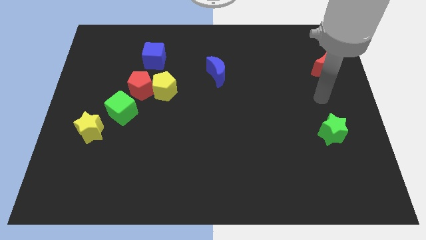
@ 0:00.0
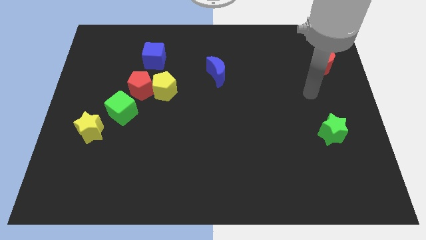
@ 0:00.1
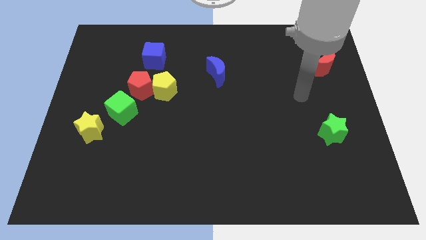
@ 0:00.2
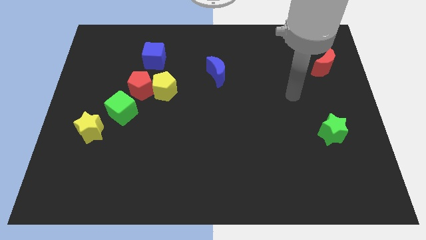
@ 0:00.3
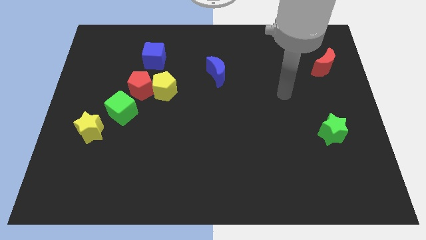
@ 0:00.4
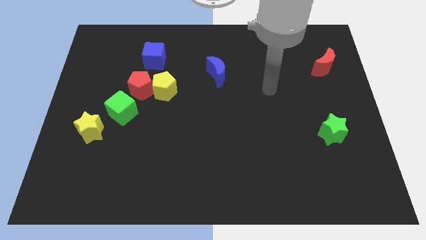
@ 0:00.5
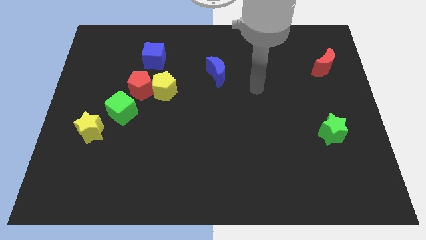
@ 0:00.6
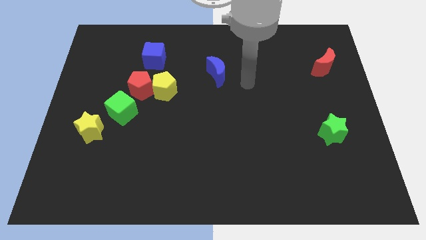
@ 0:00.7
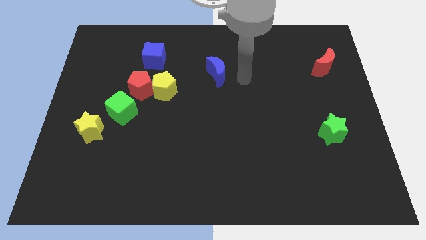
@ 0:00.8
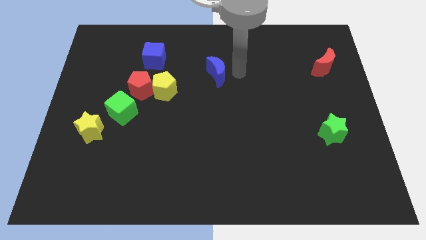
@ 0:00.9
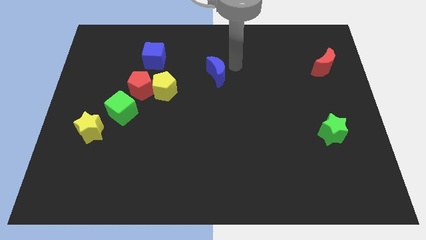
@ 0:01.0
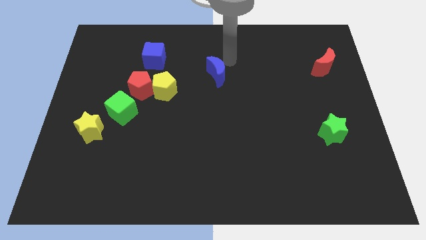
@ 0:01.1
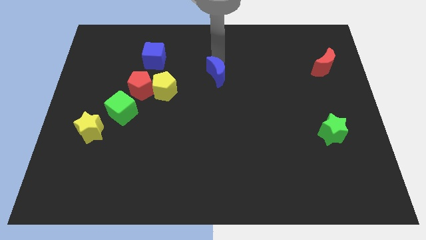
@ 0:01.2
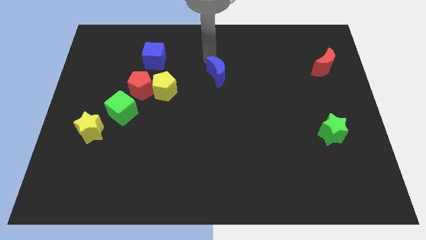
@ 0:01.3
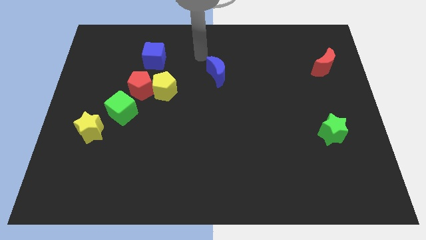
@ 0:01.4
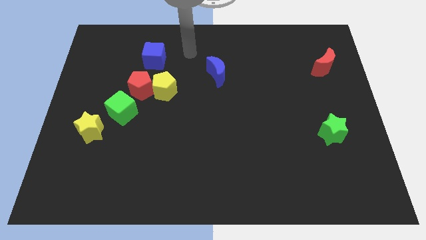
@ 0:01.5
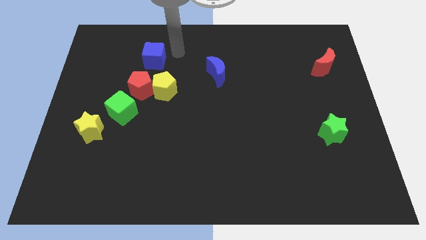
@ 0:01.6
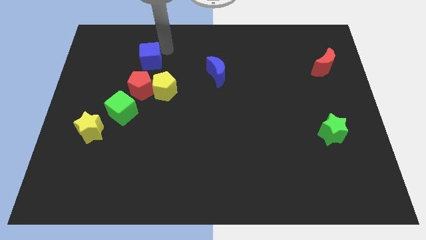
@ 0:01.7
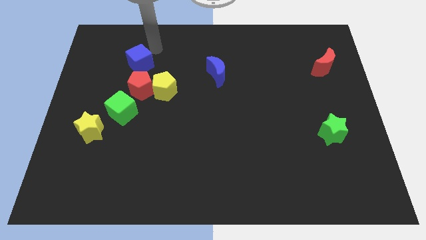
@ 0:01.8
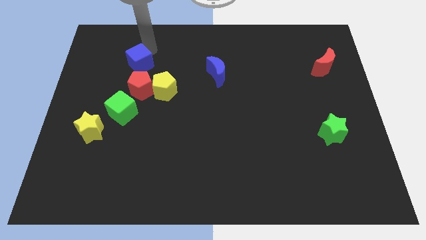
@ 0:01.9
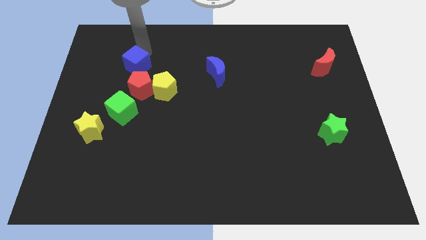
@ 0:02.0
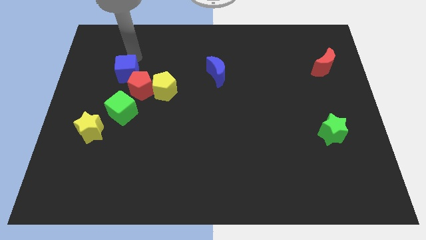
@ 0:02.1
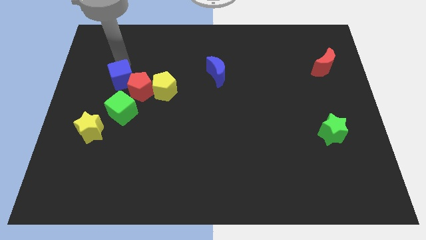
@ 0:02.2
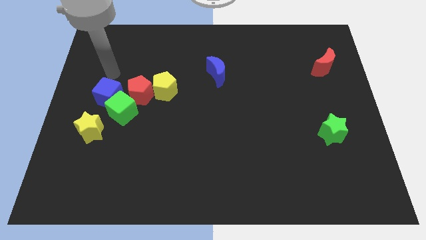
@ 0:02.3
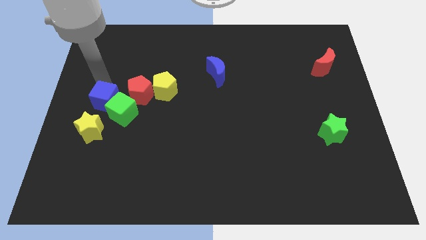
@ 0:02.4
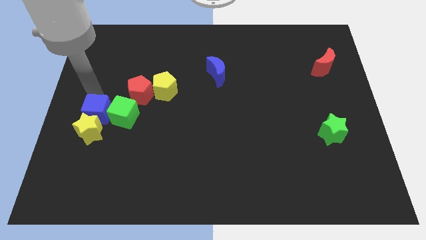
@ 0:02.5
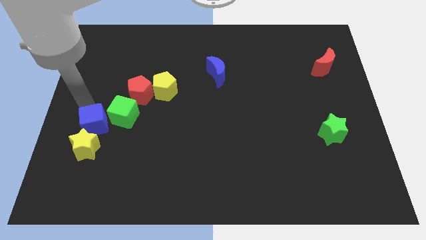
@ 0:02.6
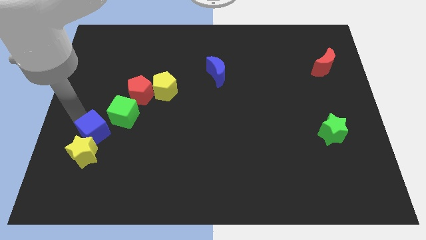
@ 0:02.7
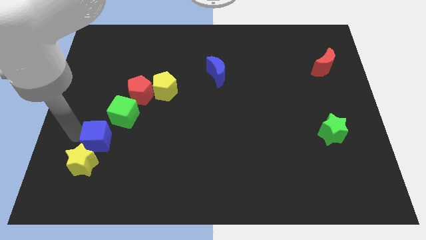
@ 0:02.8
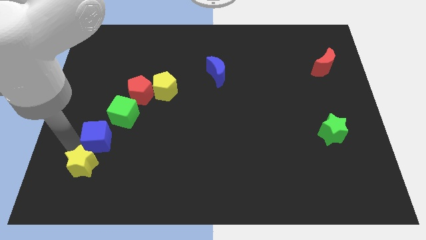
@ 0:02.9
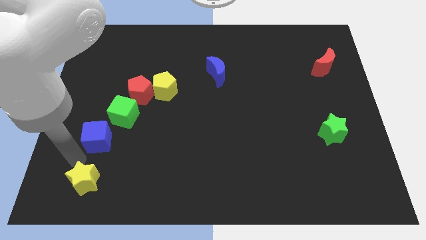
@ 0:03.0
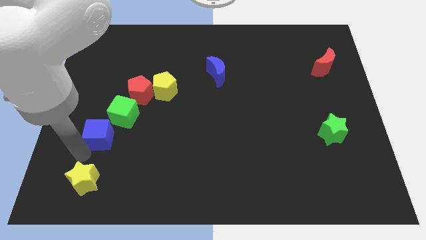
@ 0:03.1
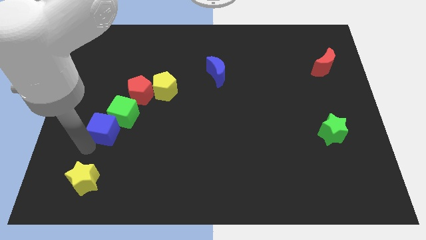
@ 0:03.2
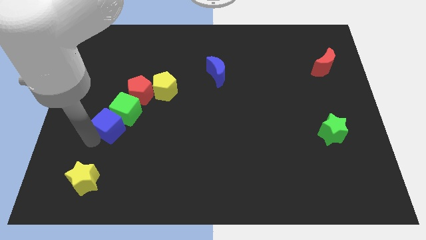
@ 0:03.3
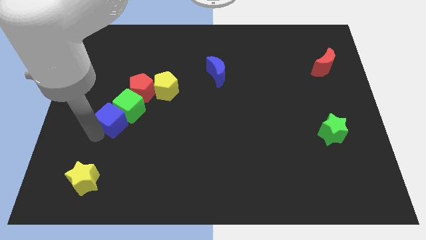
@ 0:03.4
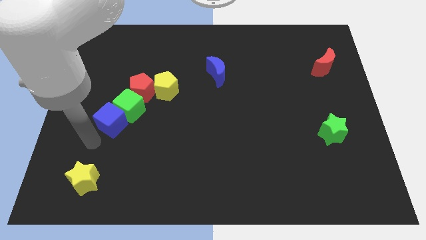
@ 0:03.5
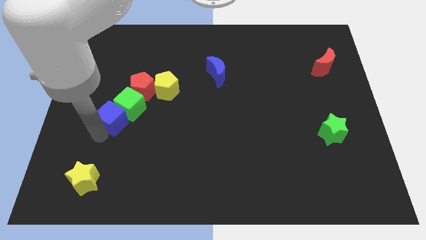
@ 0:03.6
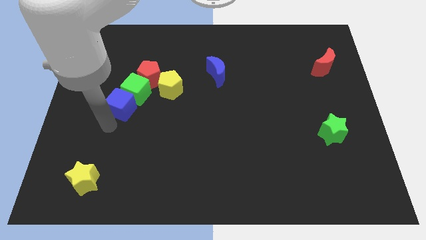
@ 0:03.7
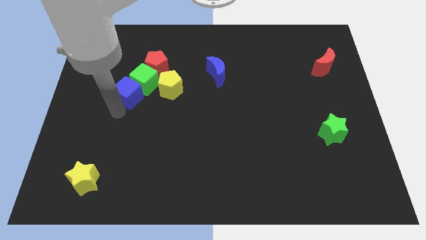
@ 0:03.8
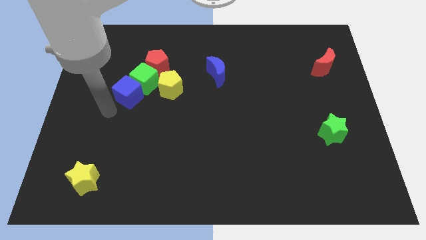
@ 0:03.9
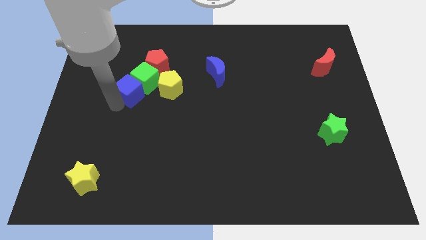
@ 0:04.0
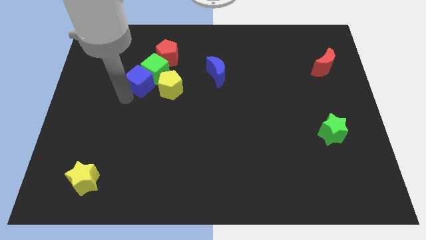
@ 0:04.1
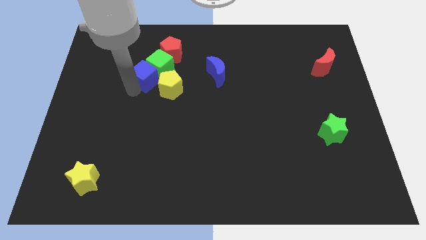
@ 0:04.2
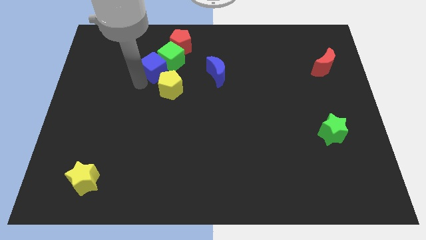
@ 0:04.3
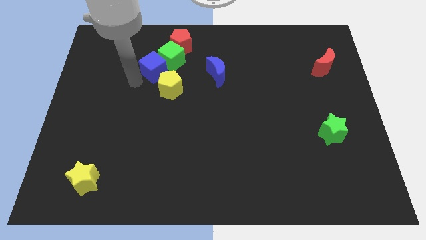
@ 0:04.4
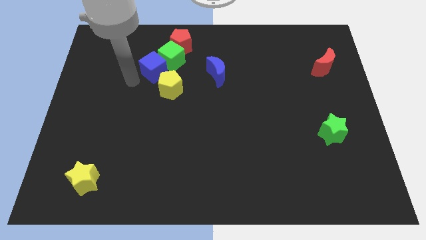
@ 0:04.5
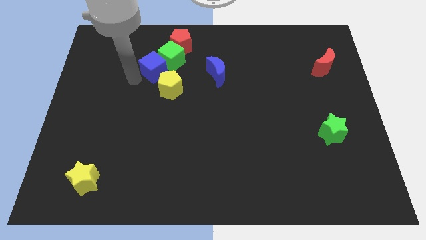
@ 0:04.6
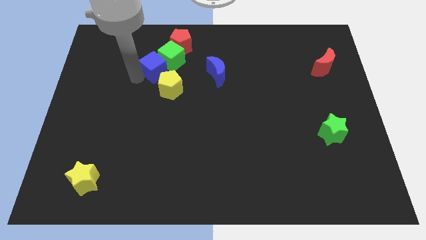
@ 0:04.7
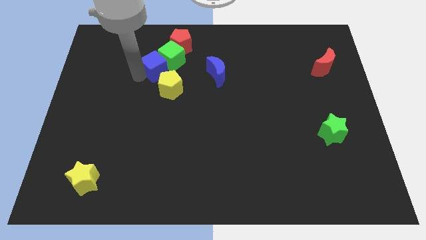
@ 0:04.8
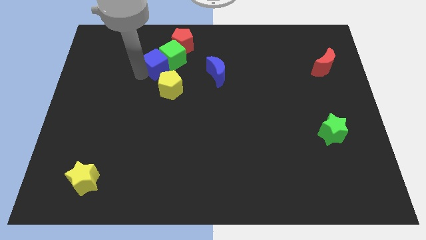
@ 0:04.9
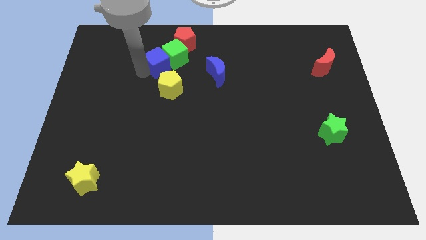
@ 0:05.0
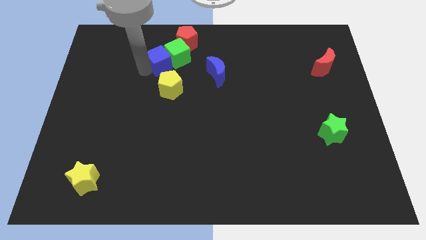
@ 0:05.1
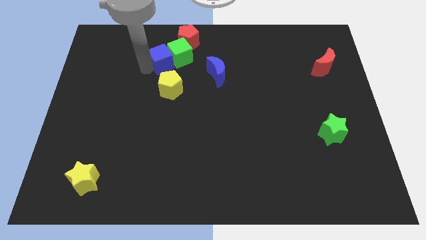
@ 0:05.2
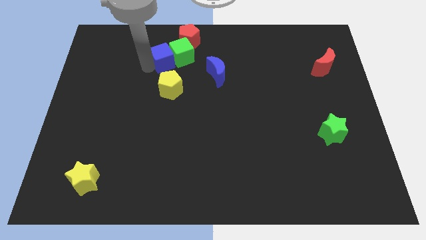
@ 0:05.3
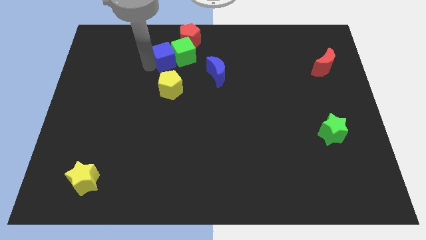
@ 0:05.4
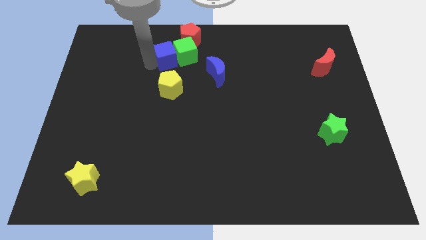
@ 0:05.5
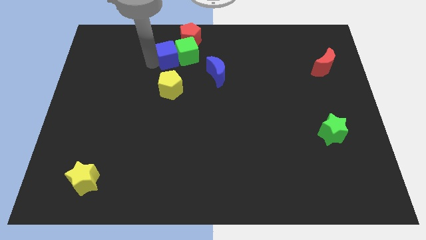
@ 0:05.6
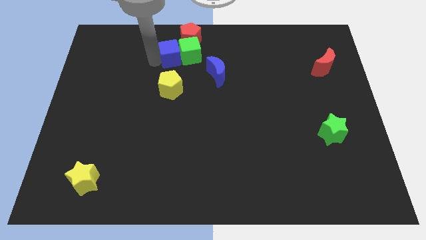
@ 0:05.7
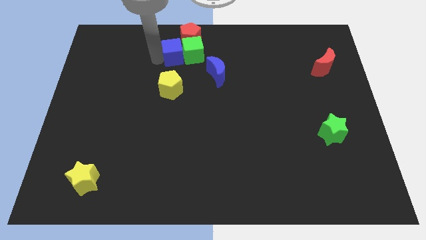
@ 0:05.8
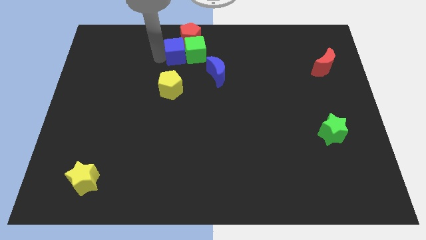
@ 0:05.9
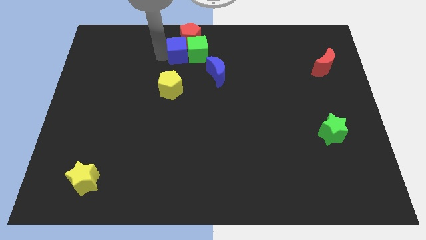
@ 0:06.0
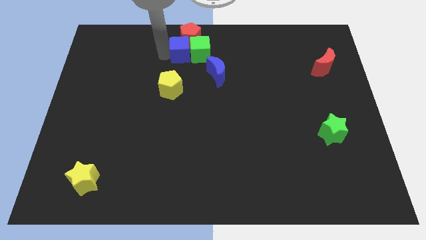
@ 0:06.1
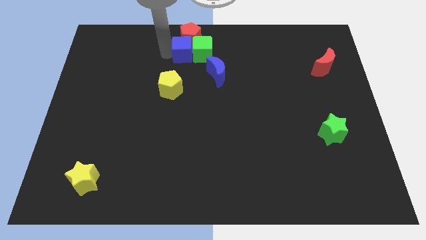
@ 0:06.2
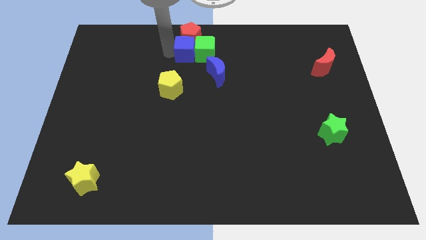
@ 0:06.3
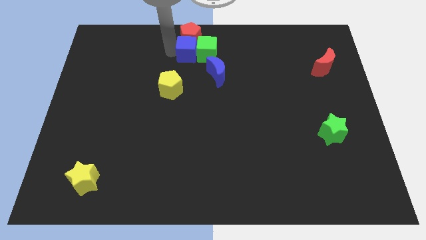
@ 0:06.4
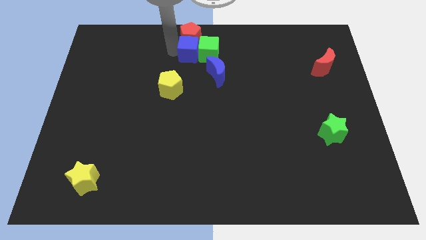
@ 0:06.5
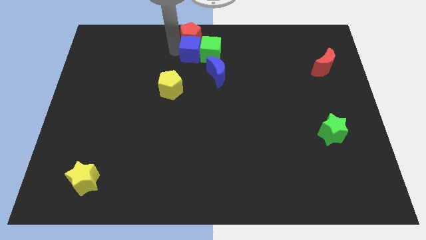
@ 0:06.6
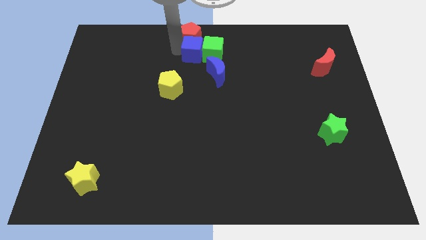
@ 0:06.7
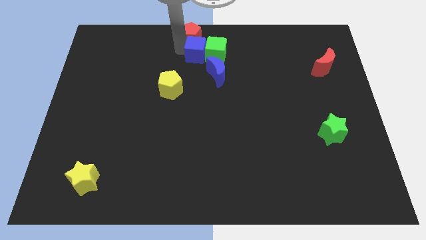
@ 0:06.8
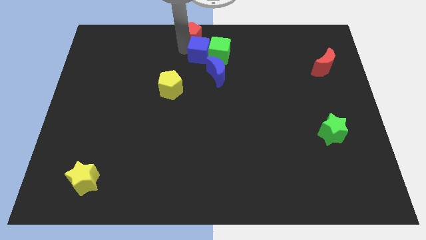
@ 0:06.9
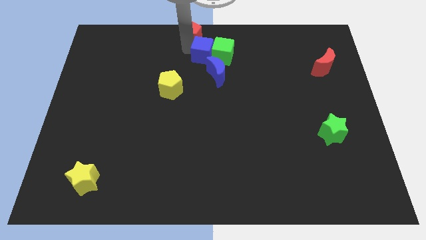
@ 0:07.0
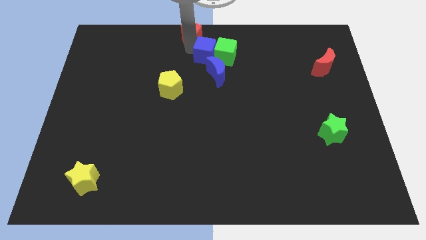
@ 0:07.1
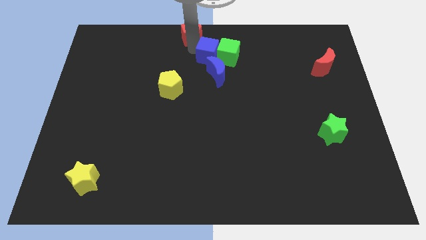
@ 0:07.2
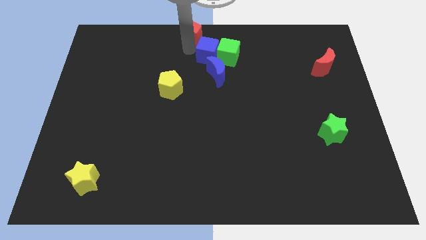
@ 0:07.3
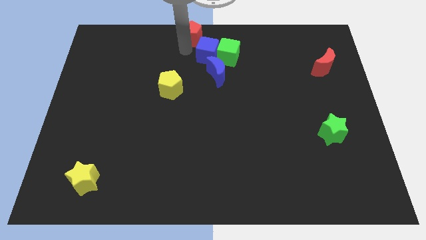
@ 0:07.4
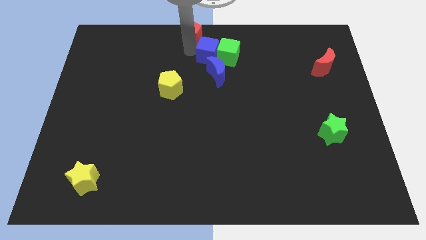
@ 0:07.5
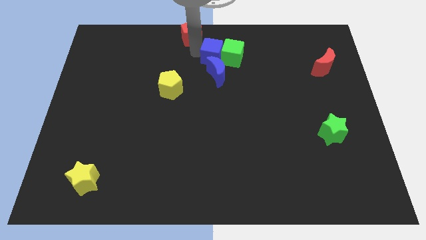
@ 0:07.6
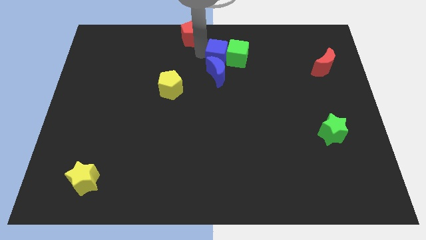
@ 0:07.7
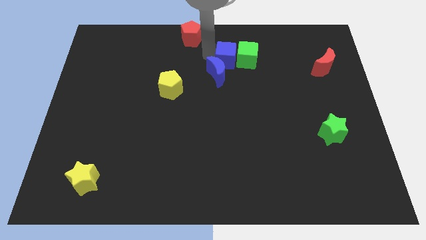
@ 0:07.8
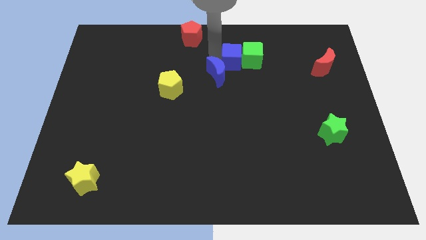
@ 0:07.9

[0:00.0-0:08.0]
move the blue cube right

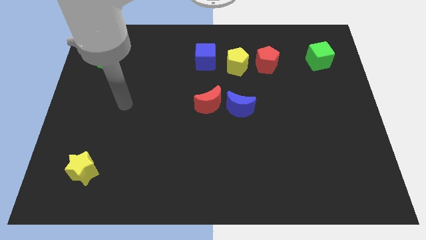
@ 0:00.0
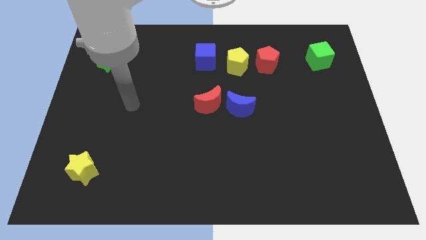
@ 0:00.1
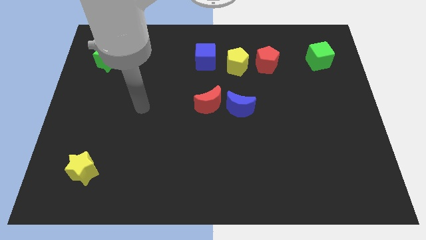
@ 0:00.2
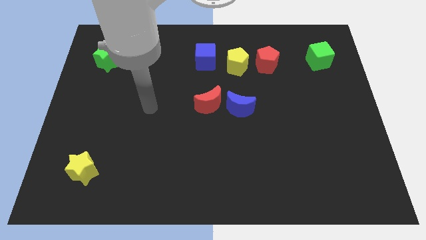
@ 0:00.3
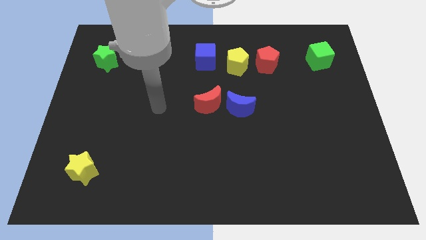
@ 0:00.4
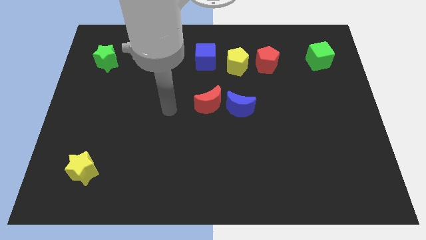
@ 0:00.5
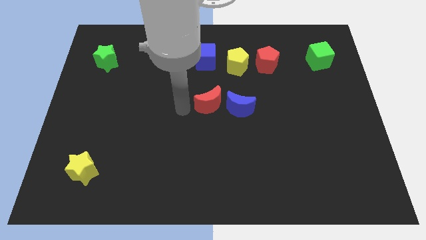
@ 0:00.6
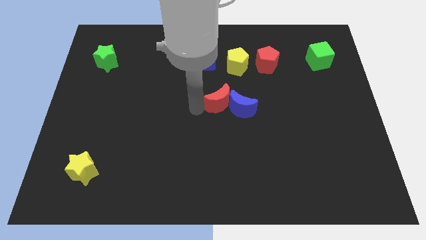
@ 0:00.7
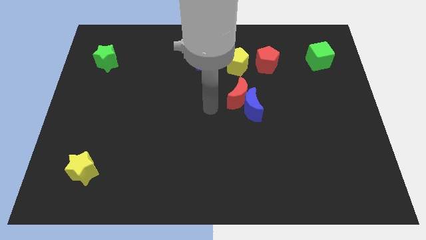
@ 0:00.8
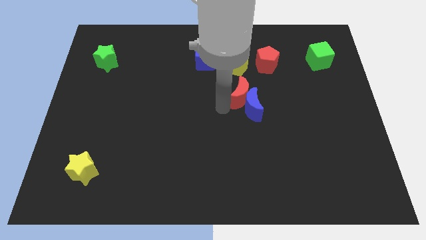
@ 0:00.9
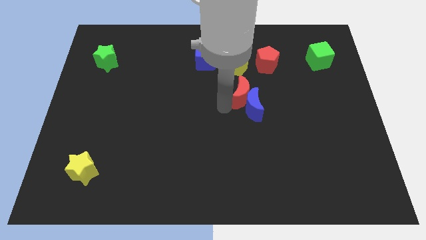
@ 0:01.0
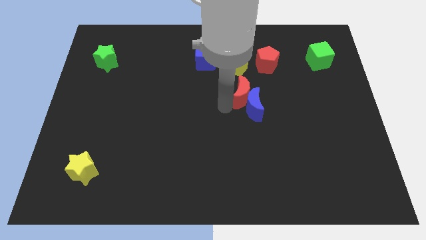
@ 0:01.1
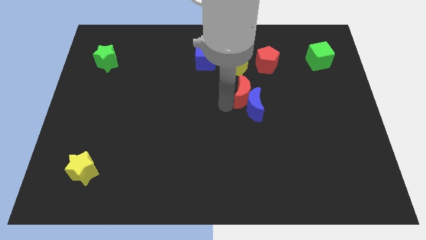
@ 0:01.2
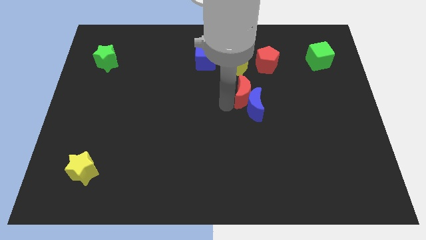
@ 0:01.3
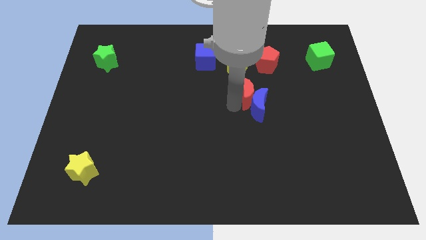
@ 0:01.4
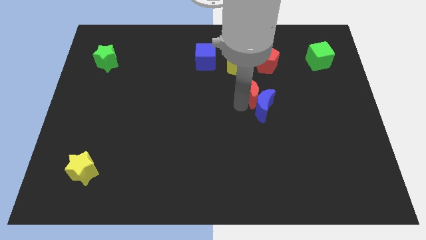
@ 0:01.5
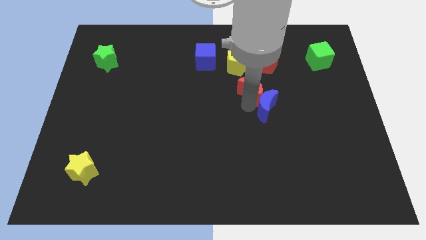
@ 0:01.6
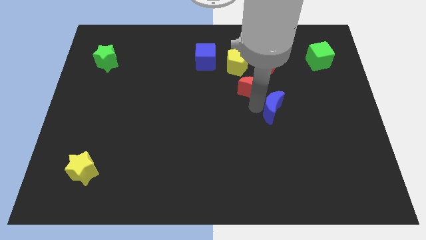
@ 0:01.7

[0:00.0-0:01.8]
slightly slide the blue moon right
